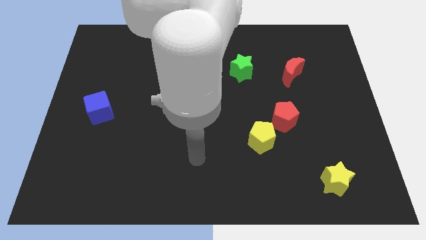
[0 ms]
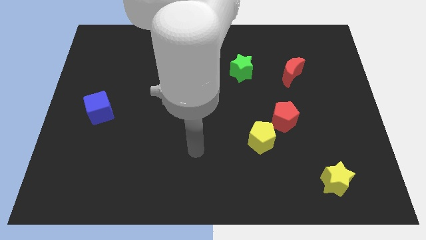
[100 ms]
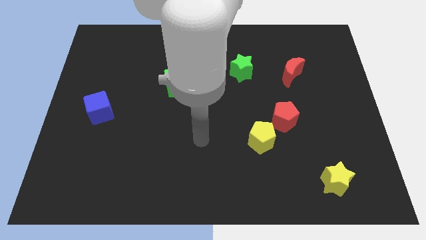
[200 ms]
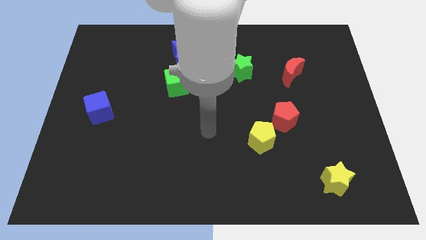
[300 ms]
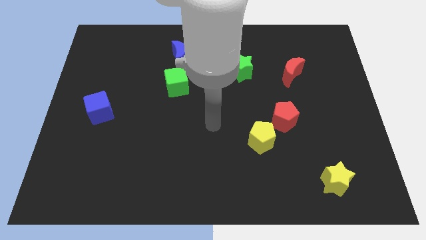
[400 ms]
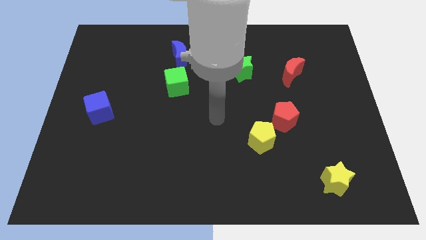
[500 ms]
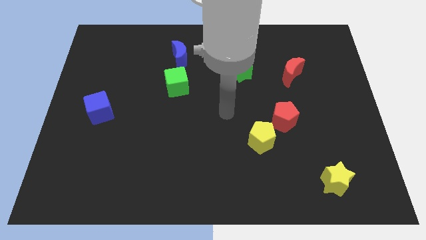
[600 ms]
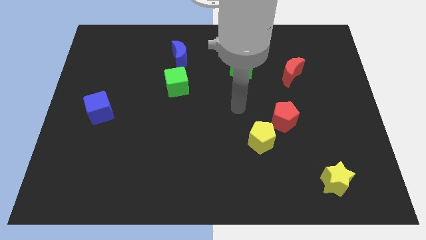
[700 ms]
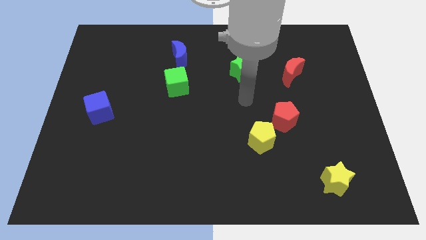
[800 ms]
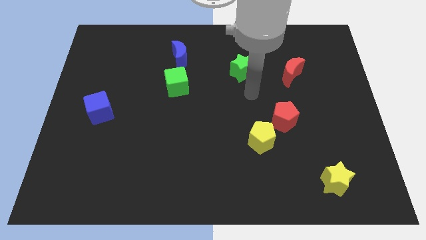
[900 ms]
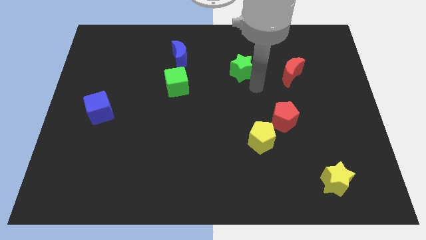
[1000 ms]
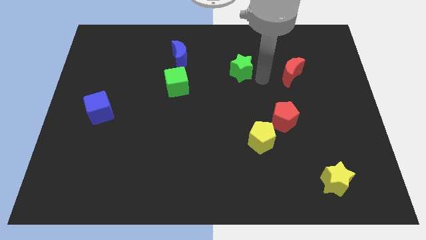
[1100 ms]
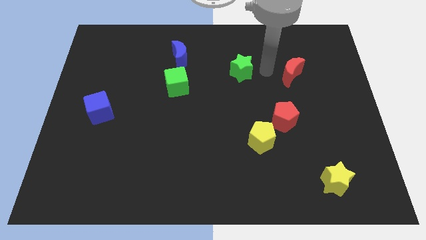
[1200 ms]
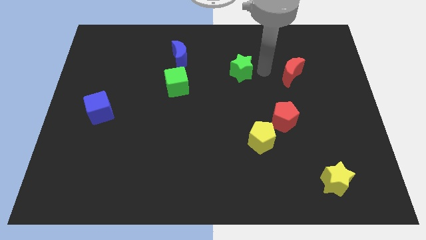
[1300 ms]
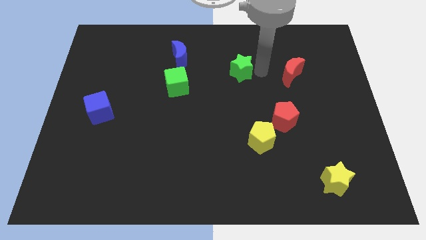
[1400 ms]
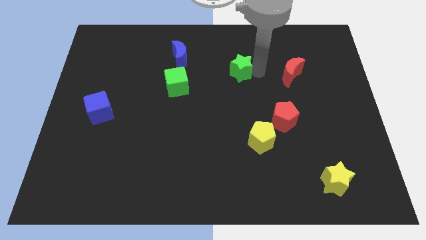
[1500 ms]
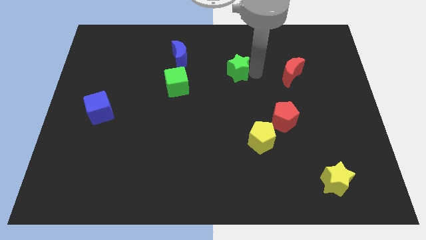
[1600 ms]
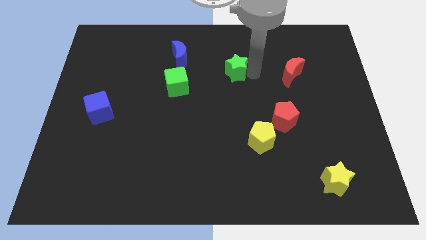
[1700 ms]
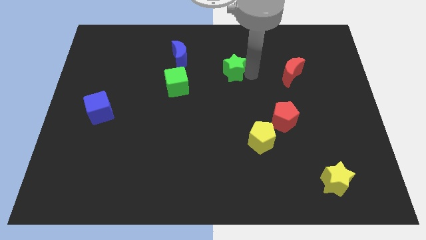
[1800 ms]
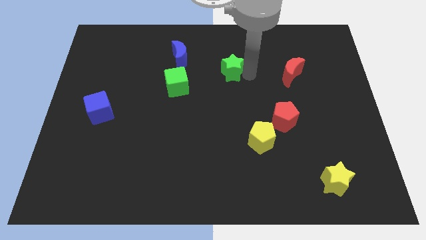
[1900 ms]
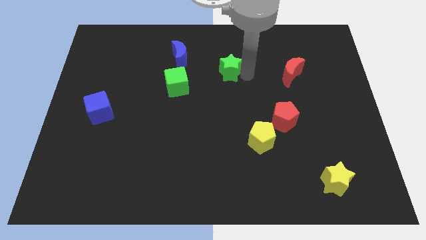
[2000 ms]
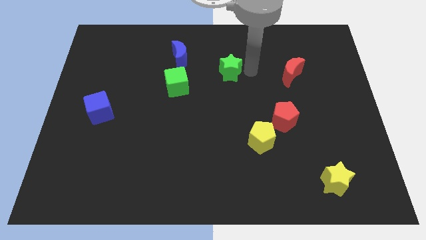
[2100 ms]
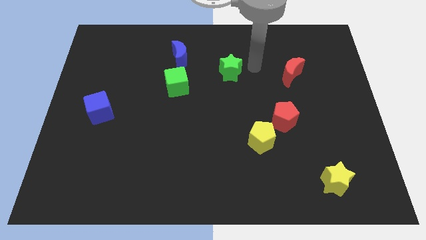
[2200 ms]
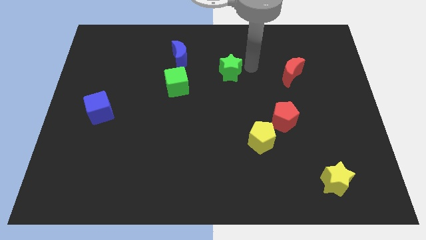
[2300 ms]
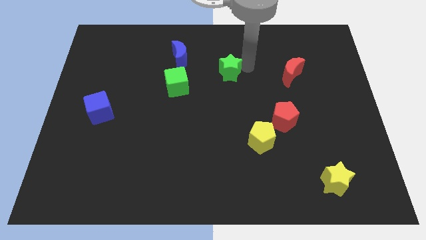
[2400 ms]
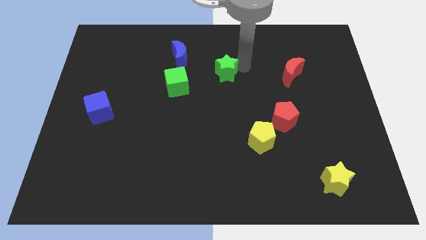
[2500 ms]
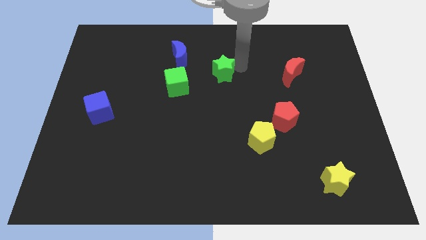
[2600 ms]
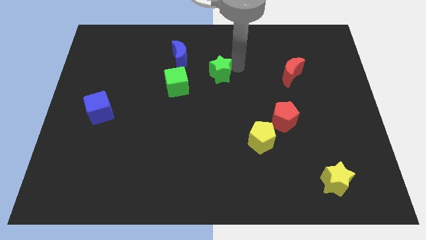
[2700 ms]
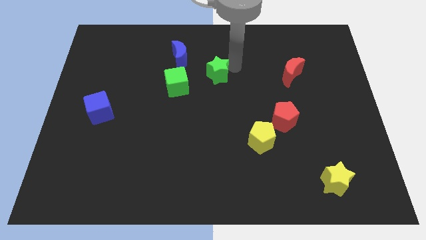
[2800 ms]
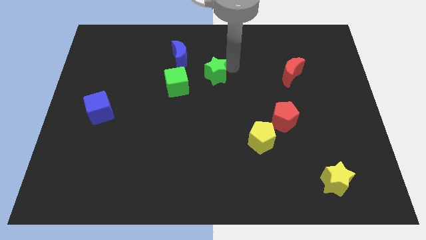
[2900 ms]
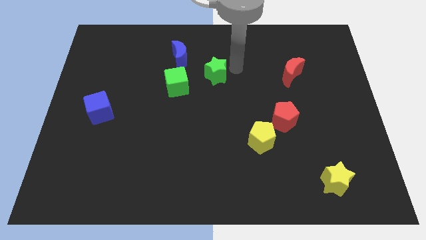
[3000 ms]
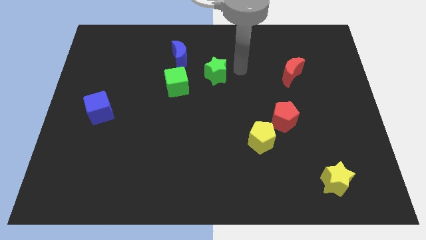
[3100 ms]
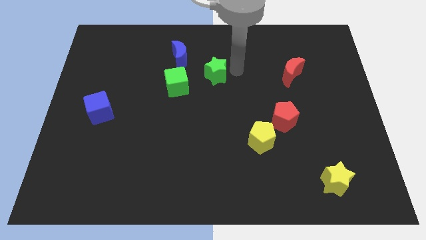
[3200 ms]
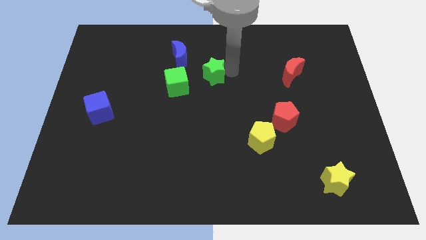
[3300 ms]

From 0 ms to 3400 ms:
slightly slide the green star left

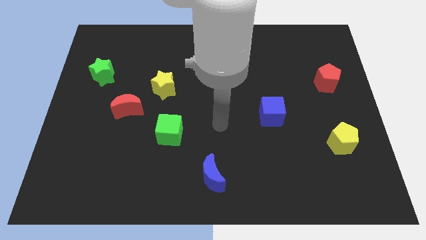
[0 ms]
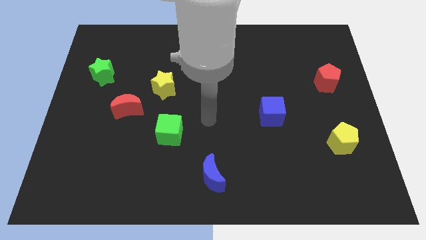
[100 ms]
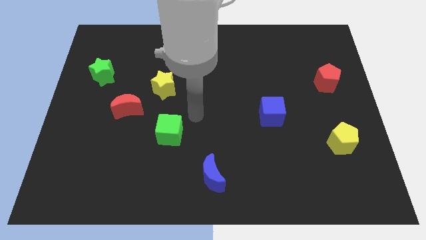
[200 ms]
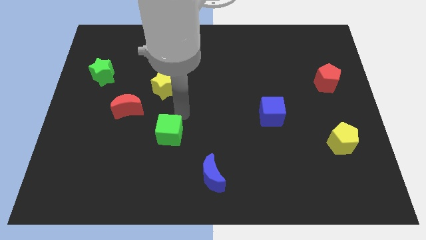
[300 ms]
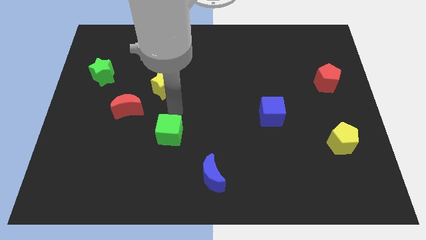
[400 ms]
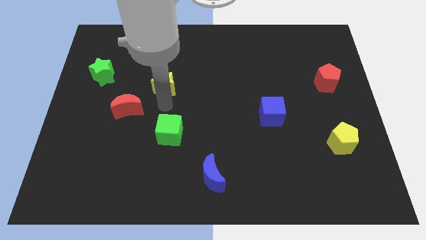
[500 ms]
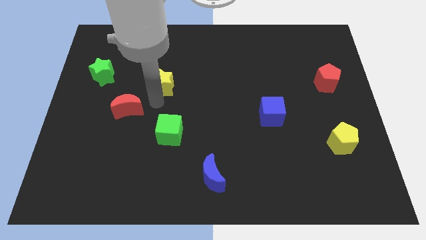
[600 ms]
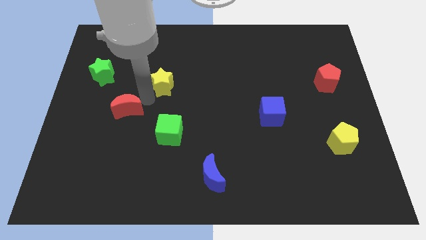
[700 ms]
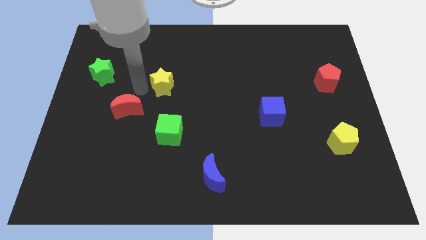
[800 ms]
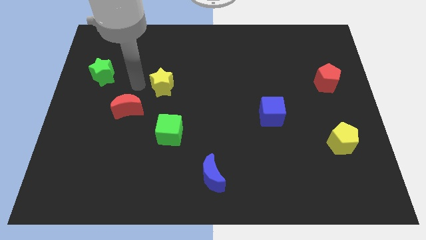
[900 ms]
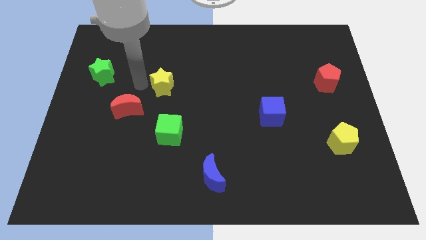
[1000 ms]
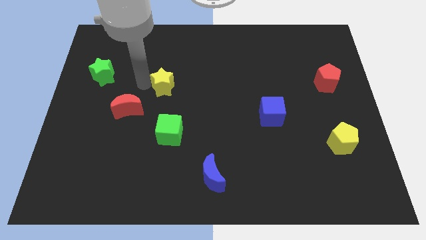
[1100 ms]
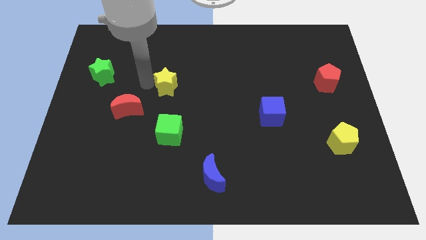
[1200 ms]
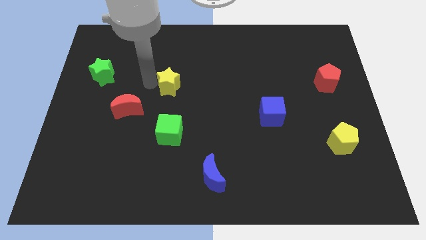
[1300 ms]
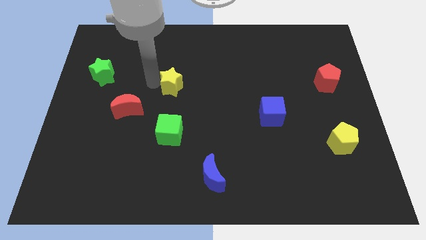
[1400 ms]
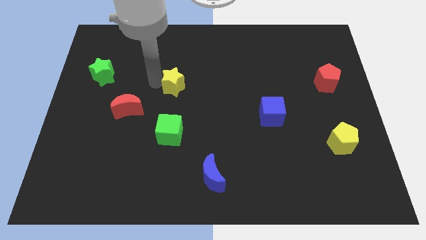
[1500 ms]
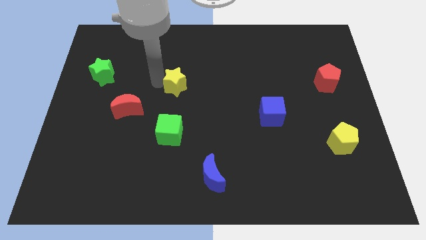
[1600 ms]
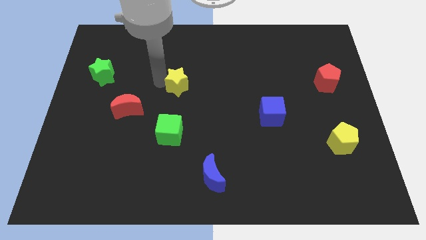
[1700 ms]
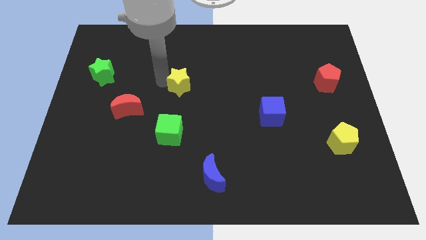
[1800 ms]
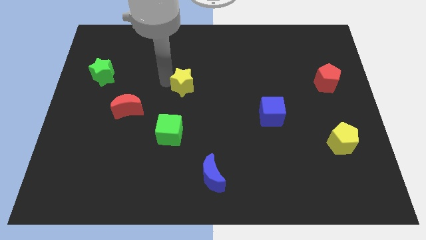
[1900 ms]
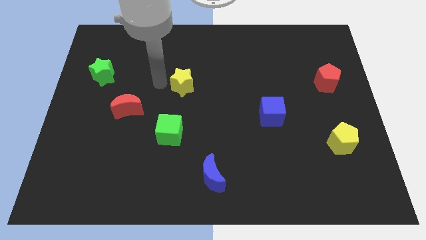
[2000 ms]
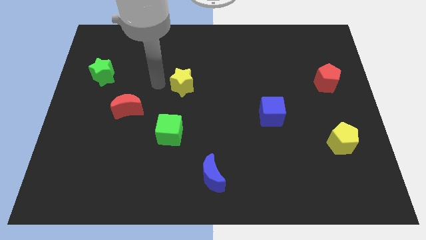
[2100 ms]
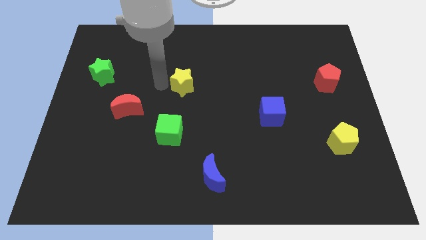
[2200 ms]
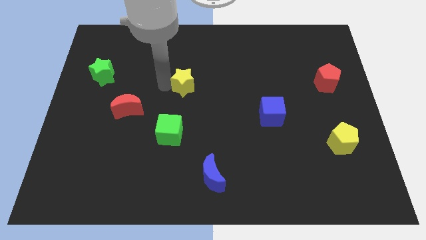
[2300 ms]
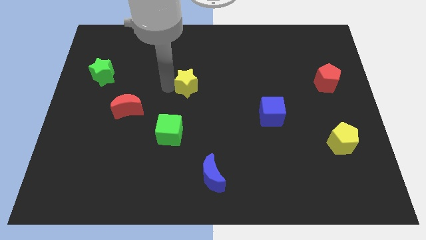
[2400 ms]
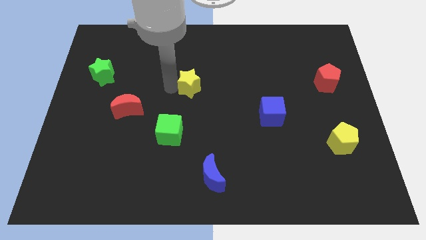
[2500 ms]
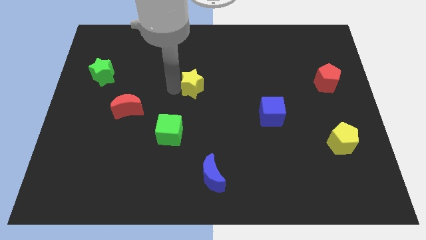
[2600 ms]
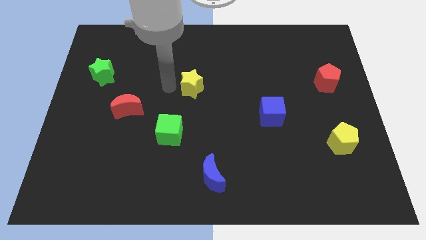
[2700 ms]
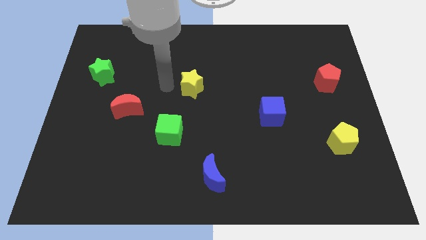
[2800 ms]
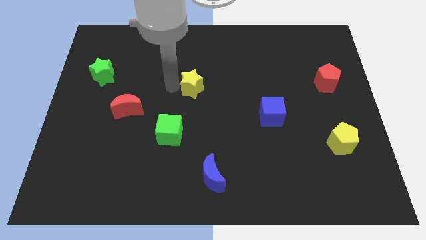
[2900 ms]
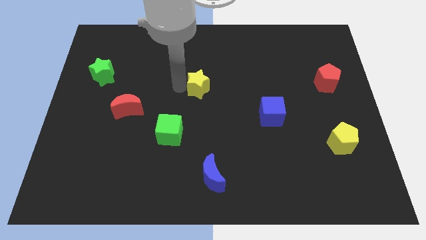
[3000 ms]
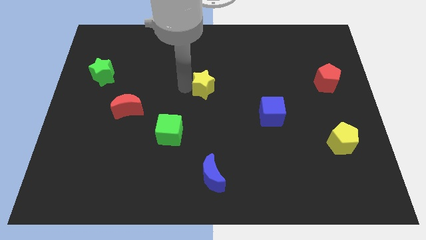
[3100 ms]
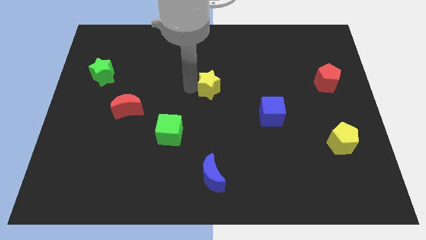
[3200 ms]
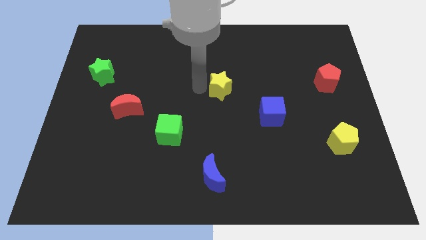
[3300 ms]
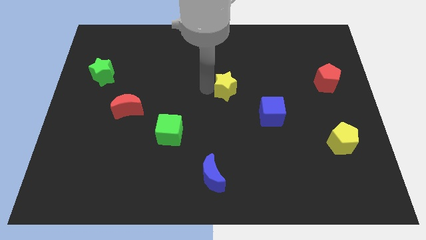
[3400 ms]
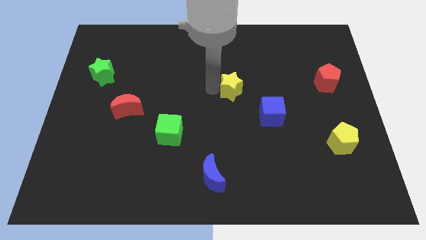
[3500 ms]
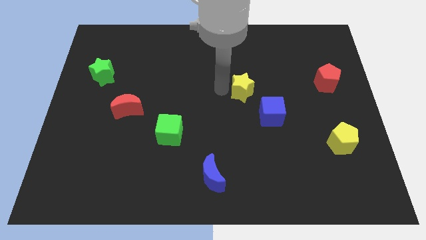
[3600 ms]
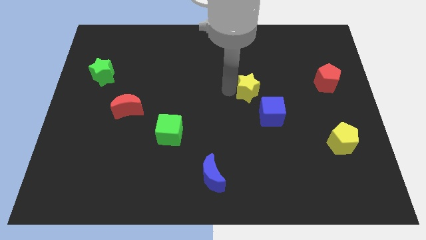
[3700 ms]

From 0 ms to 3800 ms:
move the yellow star to the right

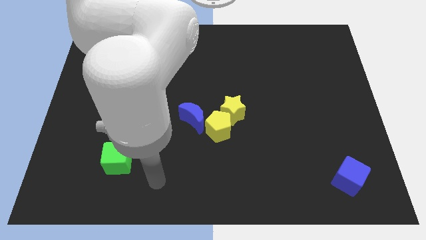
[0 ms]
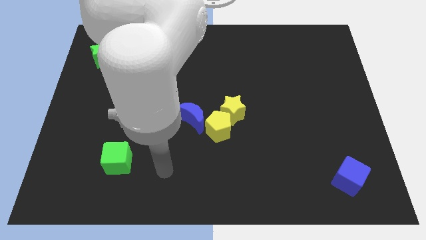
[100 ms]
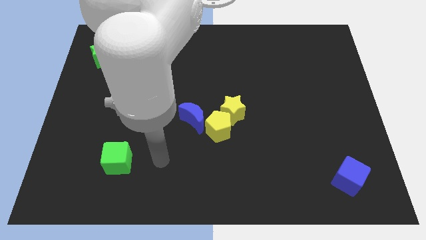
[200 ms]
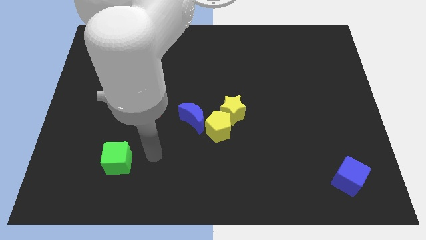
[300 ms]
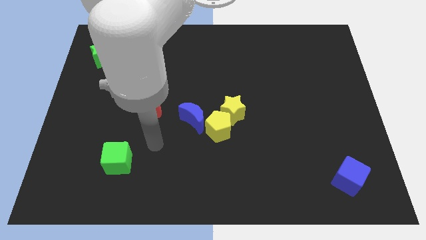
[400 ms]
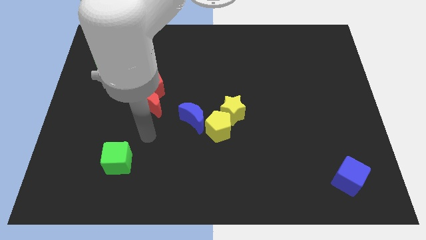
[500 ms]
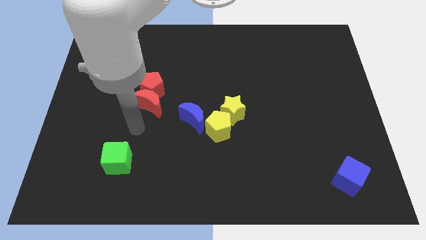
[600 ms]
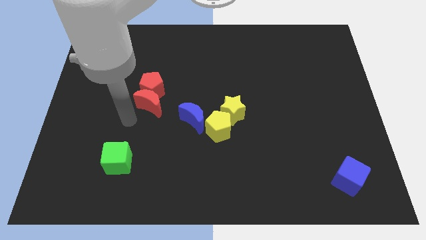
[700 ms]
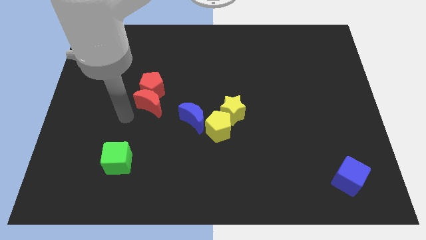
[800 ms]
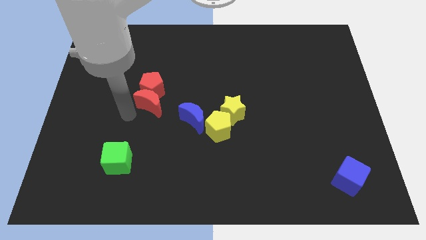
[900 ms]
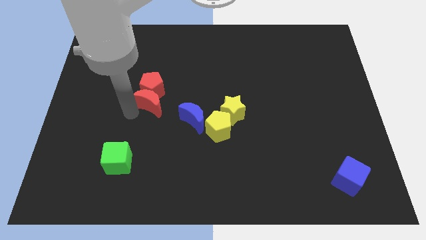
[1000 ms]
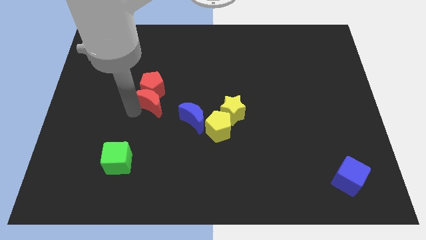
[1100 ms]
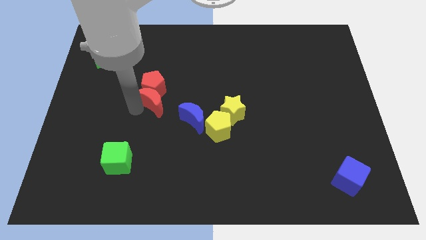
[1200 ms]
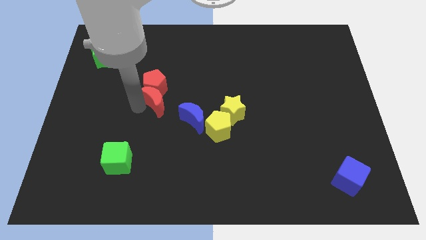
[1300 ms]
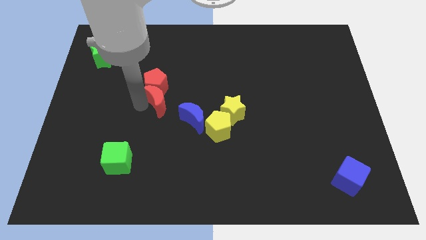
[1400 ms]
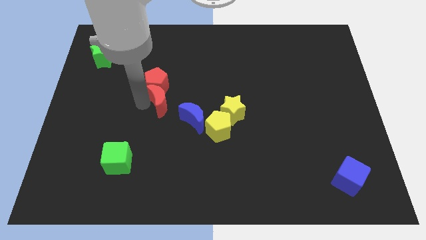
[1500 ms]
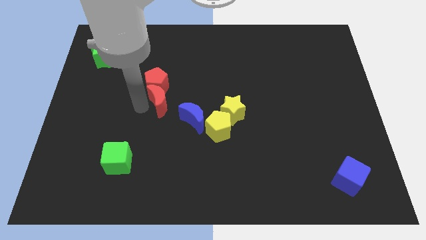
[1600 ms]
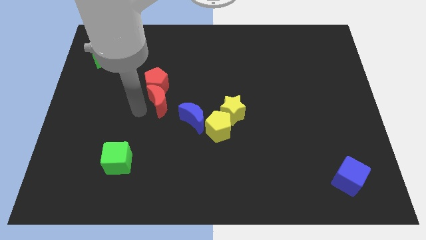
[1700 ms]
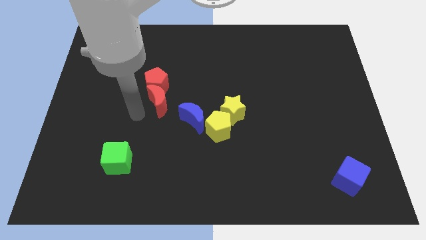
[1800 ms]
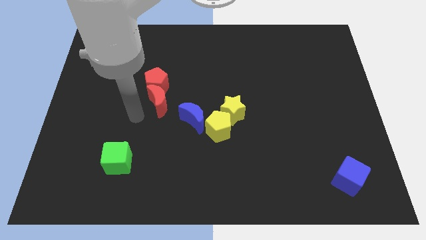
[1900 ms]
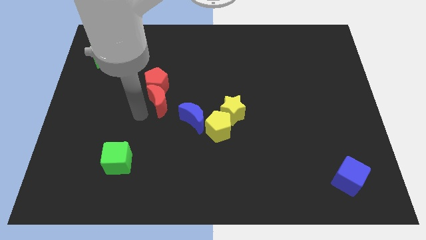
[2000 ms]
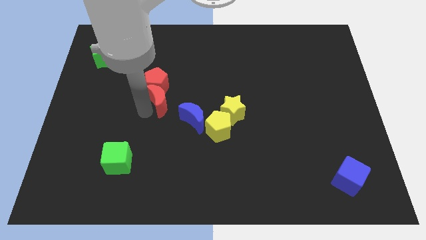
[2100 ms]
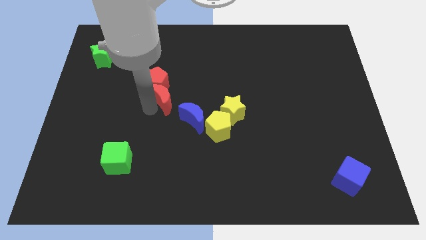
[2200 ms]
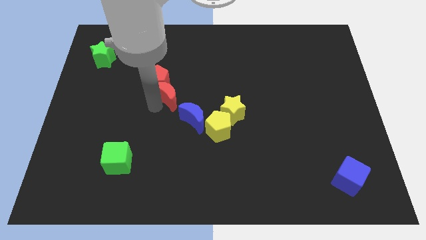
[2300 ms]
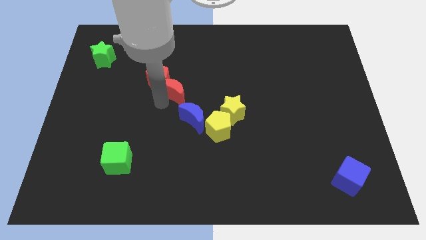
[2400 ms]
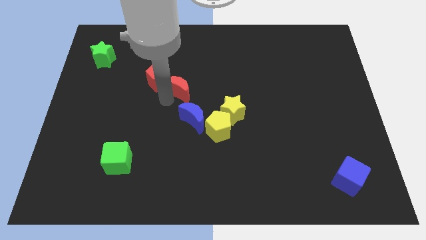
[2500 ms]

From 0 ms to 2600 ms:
slide the red moon up and to the right somewhat
